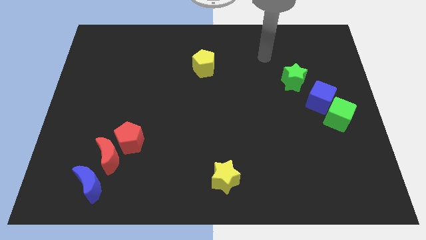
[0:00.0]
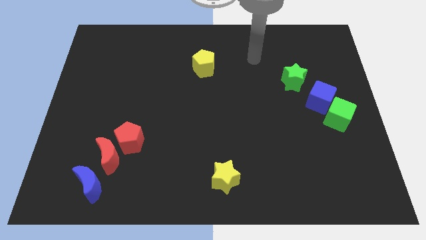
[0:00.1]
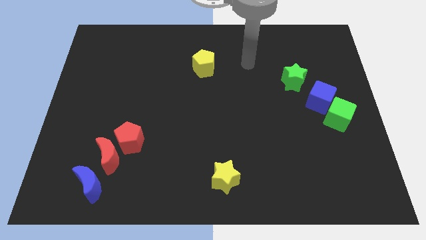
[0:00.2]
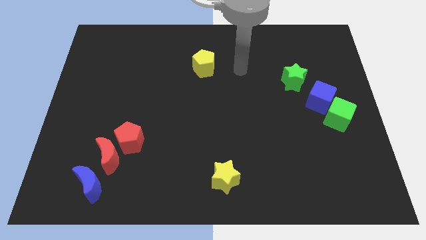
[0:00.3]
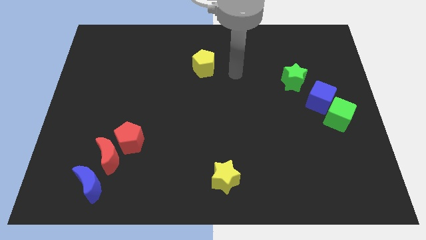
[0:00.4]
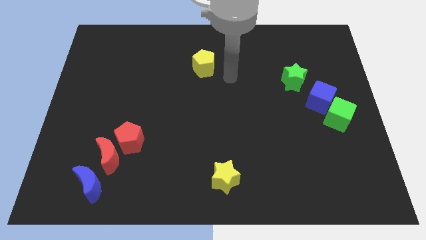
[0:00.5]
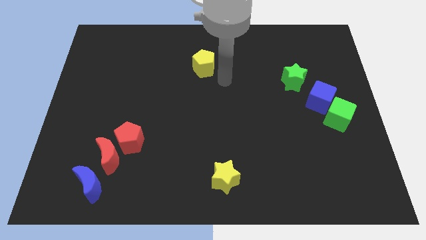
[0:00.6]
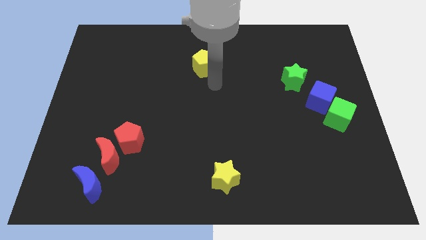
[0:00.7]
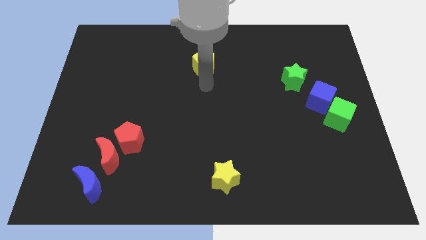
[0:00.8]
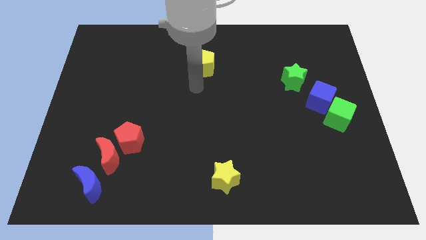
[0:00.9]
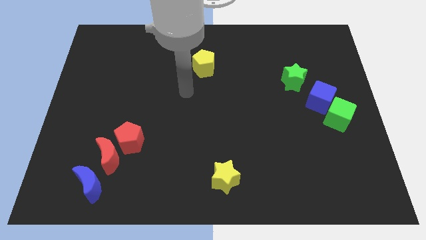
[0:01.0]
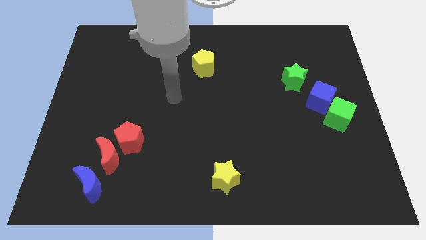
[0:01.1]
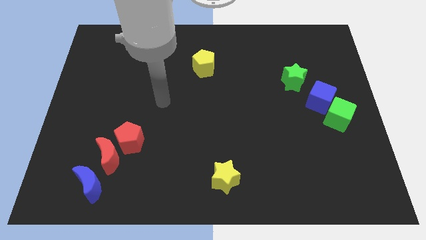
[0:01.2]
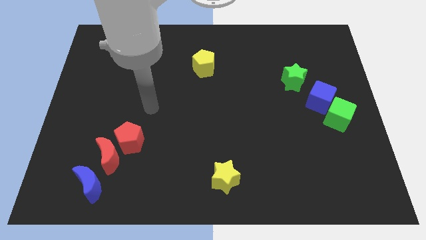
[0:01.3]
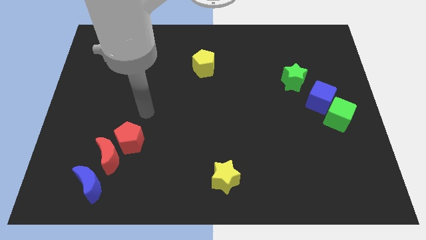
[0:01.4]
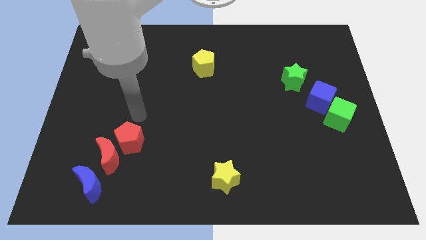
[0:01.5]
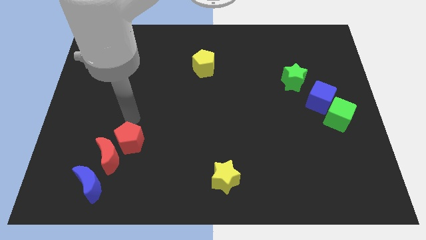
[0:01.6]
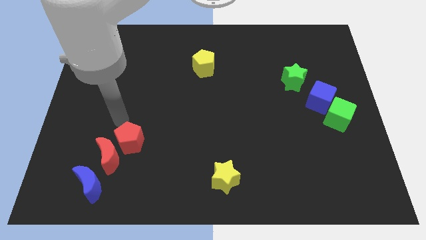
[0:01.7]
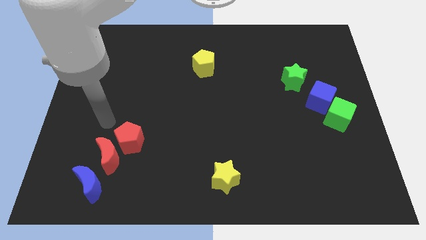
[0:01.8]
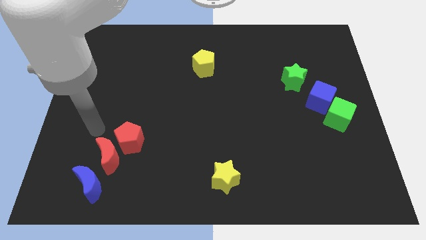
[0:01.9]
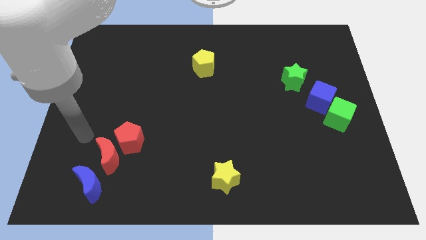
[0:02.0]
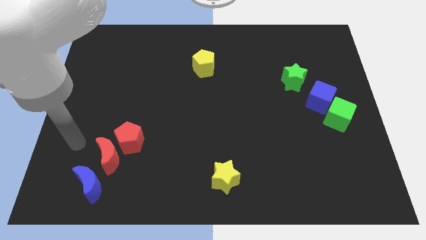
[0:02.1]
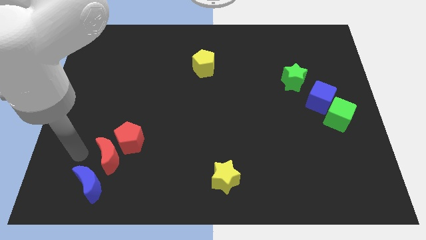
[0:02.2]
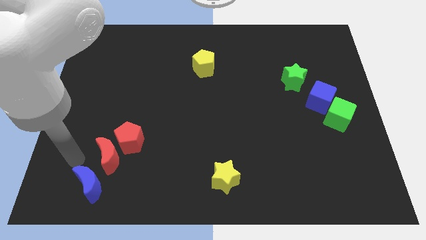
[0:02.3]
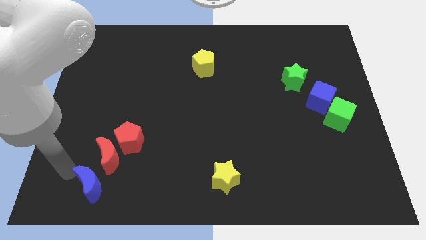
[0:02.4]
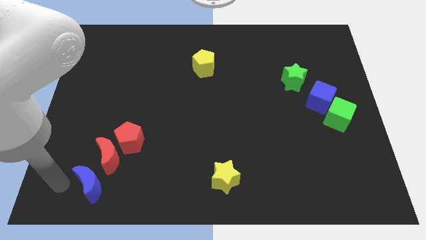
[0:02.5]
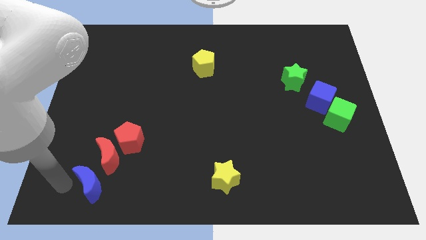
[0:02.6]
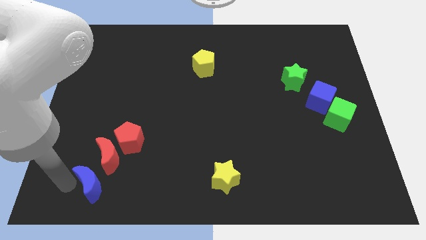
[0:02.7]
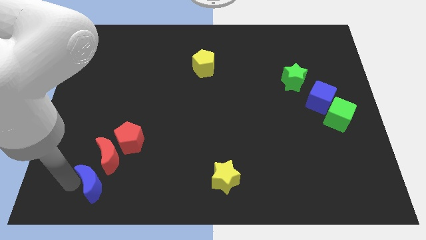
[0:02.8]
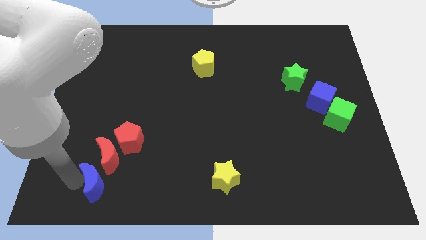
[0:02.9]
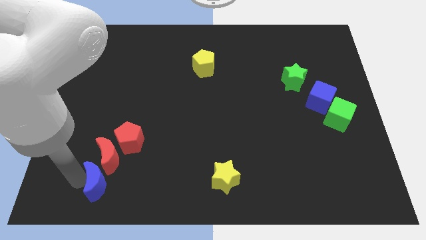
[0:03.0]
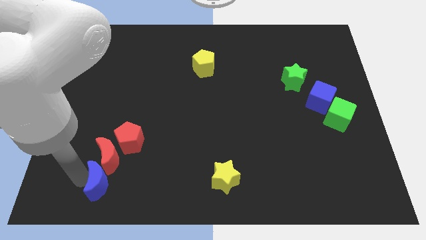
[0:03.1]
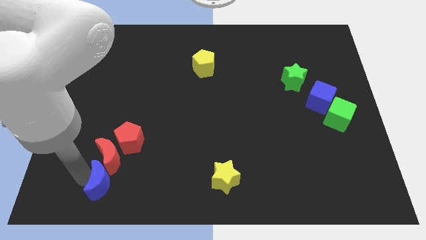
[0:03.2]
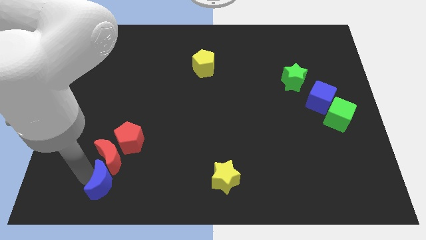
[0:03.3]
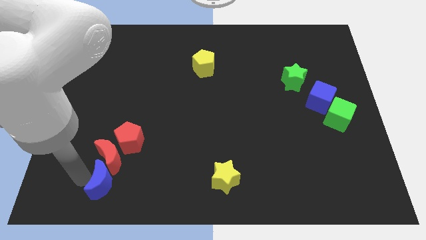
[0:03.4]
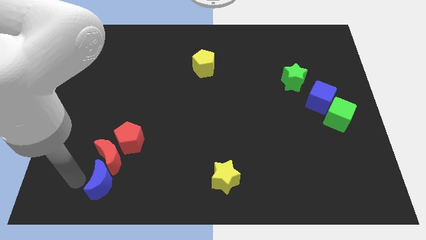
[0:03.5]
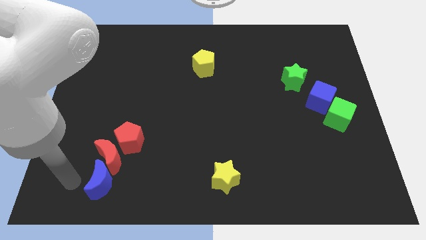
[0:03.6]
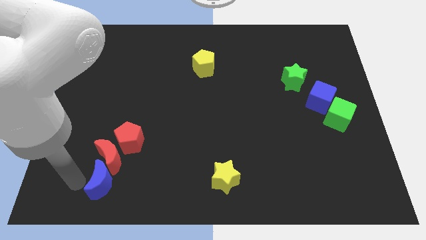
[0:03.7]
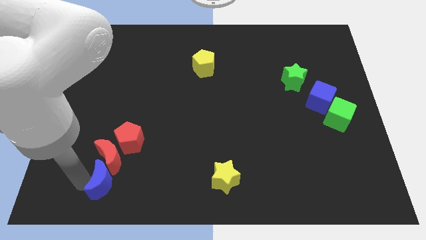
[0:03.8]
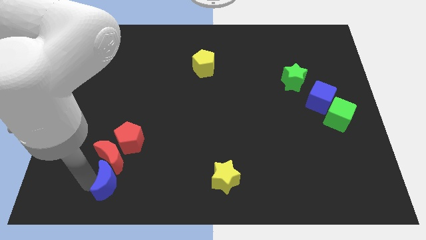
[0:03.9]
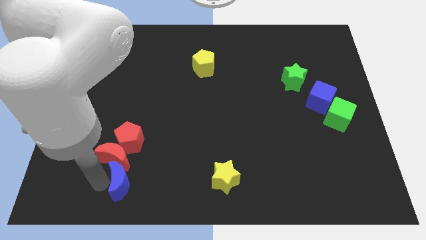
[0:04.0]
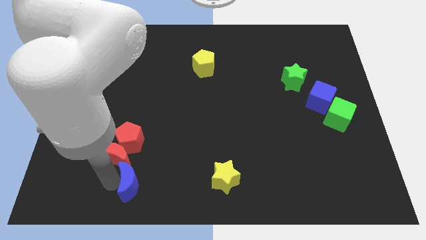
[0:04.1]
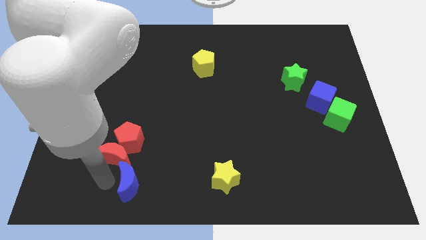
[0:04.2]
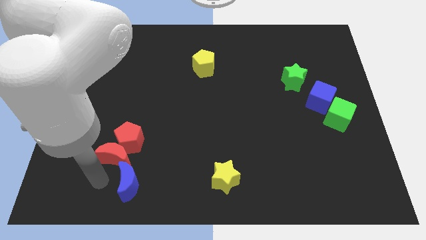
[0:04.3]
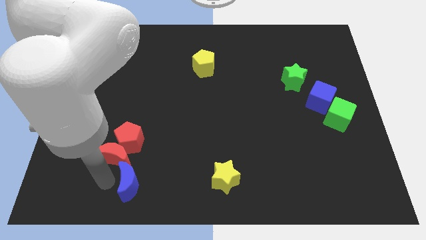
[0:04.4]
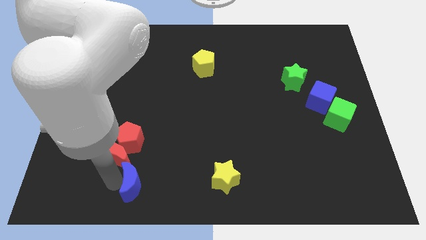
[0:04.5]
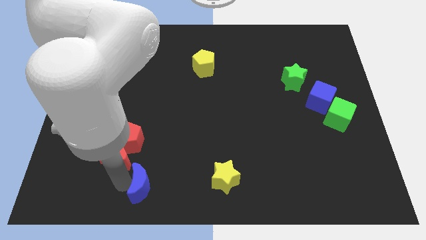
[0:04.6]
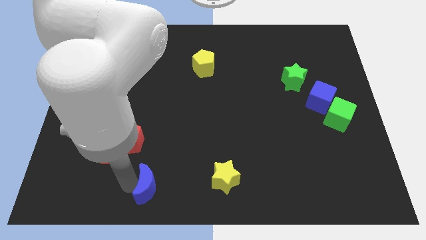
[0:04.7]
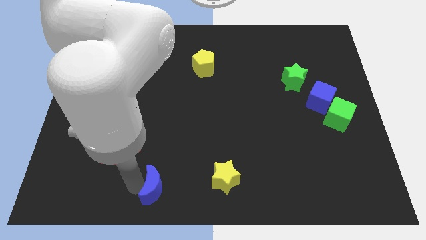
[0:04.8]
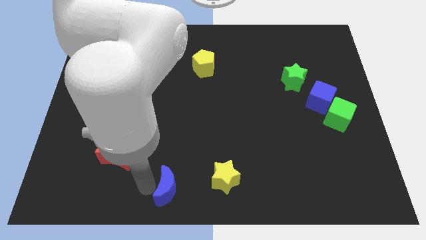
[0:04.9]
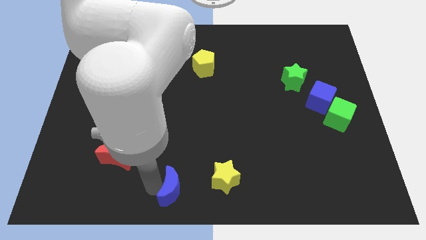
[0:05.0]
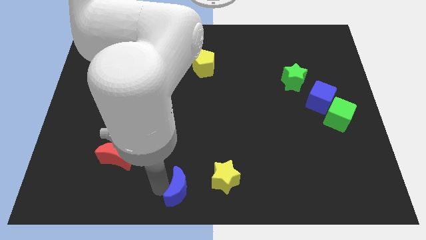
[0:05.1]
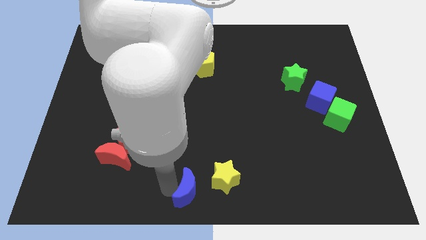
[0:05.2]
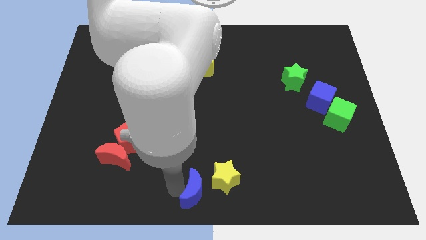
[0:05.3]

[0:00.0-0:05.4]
slide the blue moon right

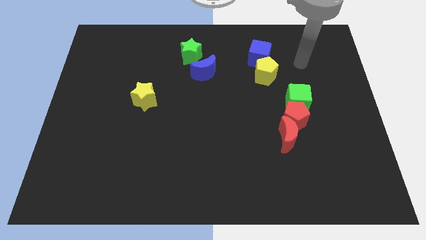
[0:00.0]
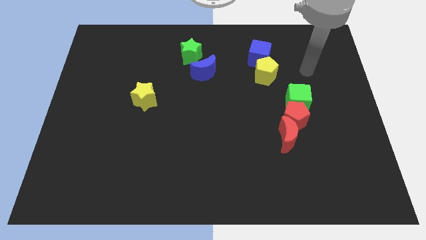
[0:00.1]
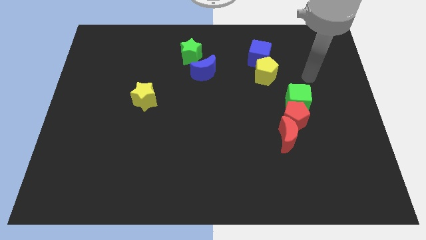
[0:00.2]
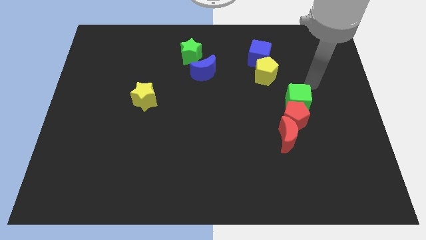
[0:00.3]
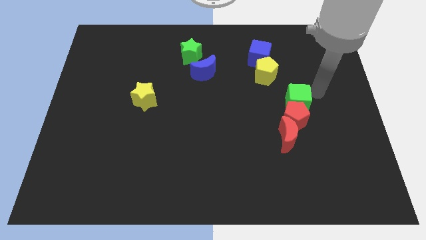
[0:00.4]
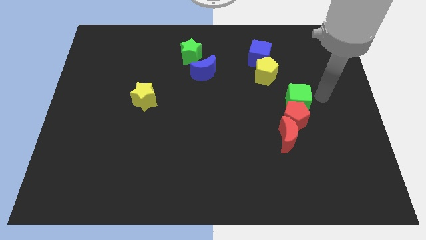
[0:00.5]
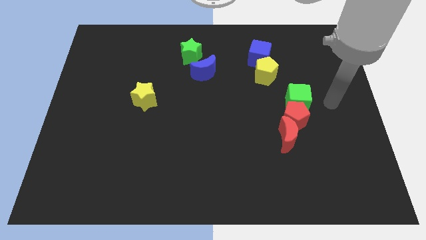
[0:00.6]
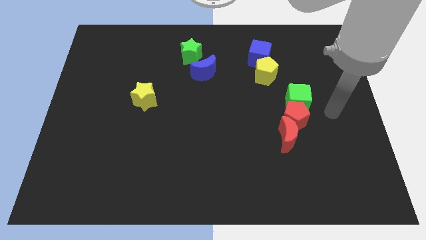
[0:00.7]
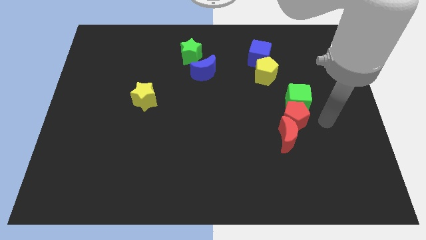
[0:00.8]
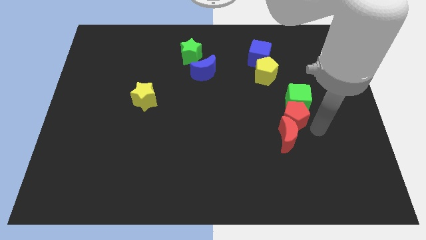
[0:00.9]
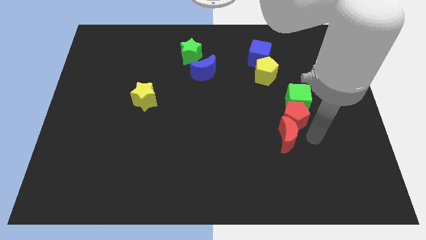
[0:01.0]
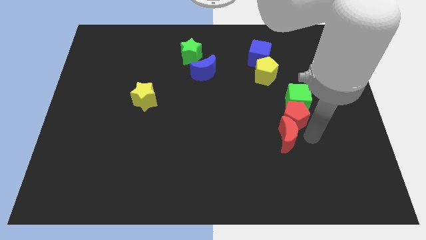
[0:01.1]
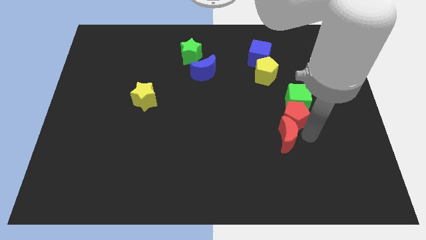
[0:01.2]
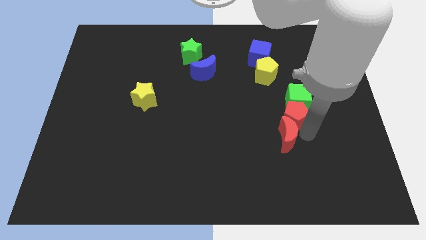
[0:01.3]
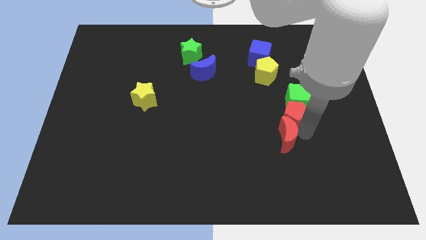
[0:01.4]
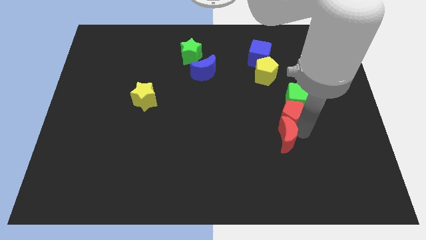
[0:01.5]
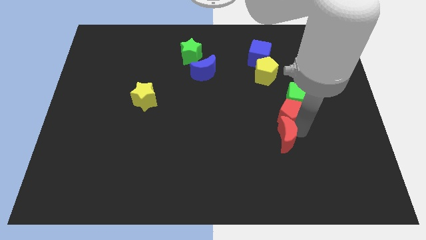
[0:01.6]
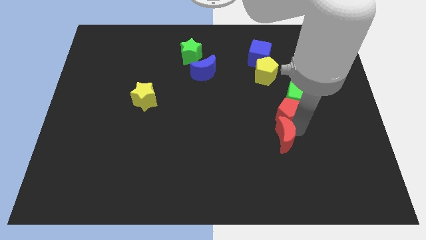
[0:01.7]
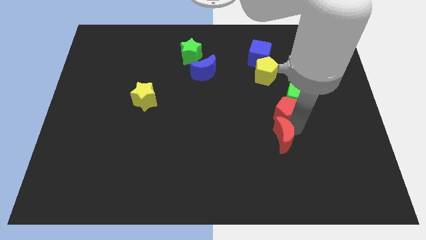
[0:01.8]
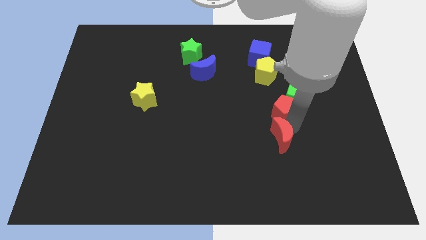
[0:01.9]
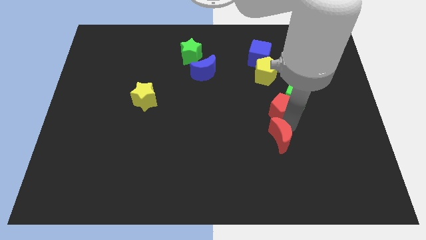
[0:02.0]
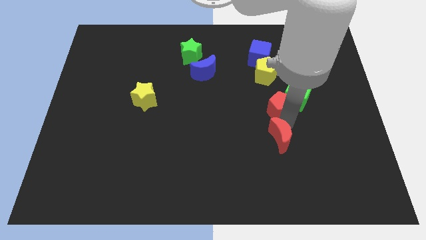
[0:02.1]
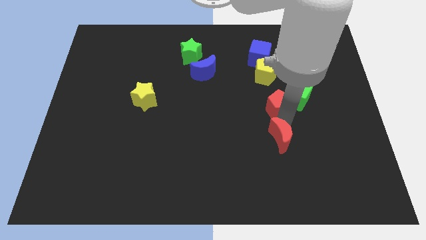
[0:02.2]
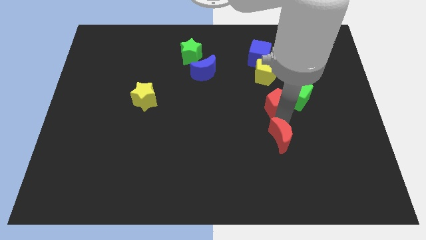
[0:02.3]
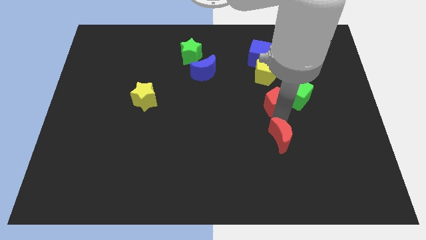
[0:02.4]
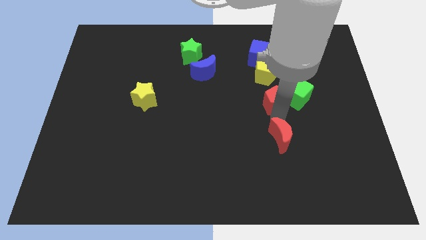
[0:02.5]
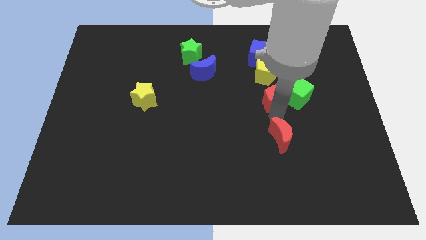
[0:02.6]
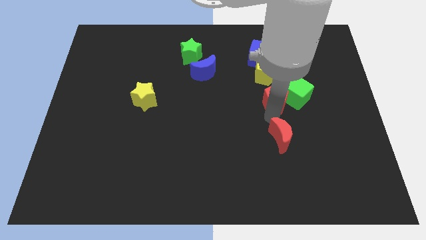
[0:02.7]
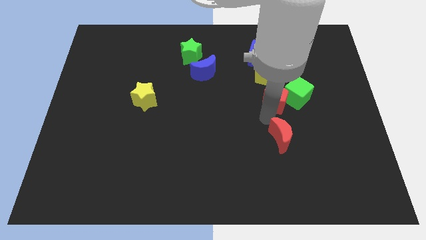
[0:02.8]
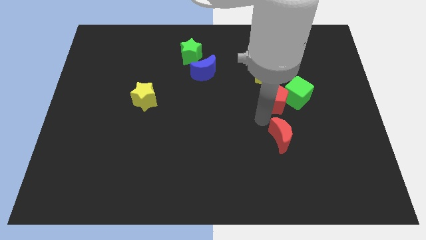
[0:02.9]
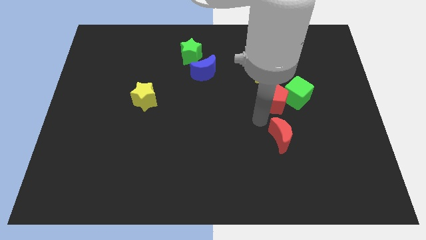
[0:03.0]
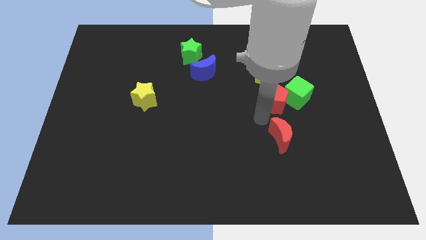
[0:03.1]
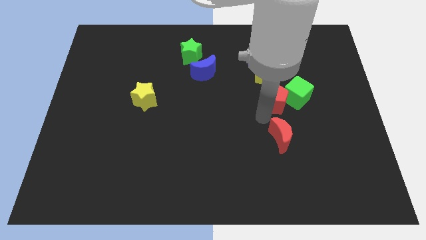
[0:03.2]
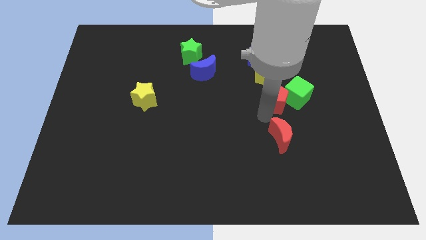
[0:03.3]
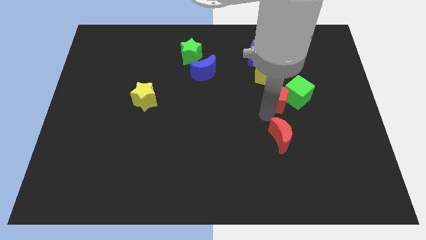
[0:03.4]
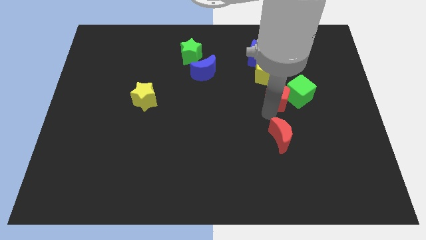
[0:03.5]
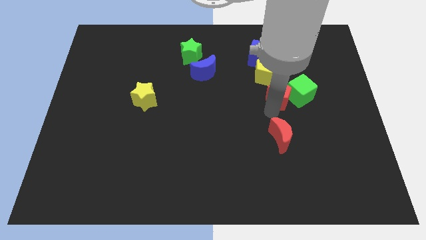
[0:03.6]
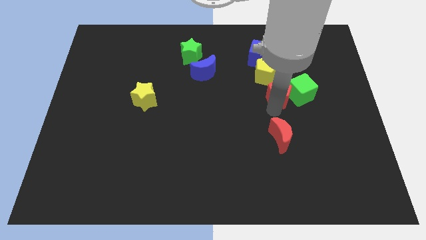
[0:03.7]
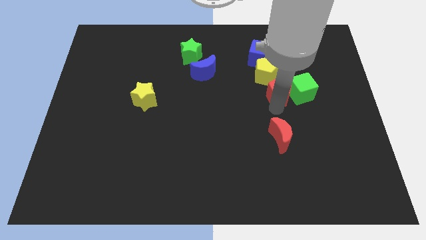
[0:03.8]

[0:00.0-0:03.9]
slightly move the red pentagon up
